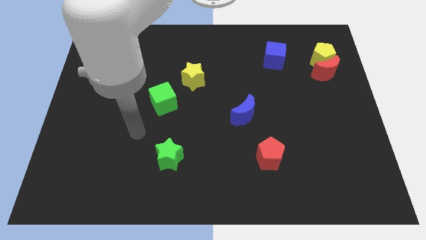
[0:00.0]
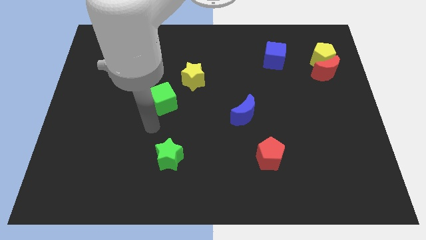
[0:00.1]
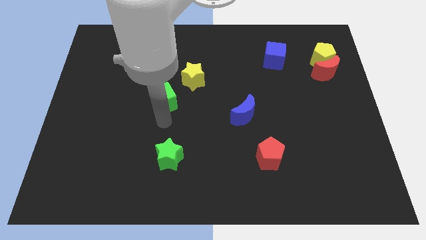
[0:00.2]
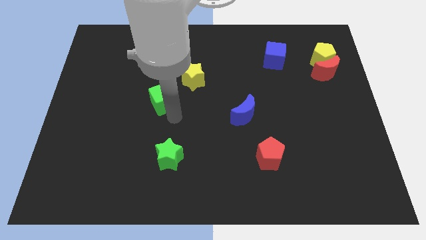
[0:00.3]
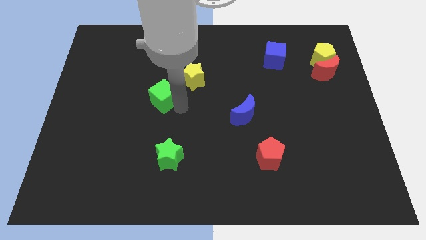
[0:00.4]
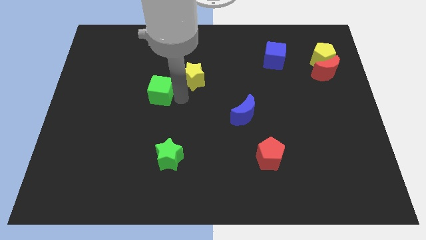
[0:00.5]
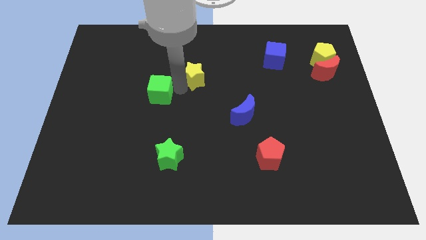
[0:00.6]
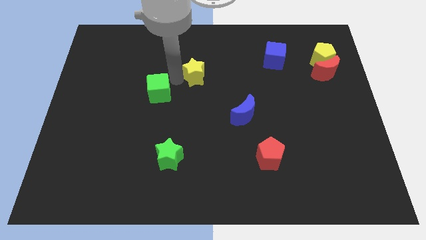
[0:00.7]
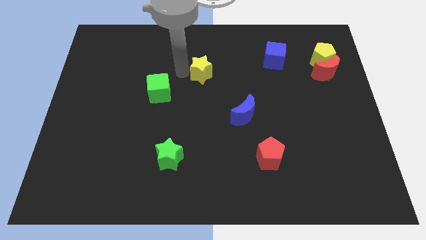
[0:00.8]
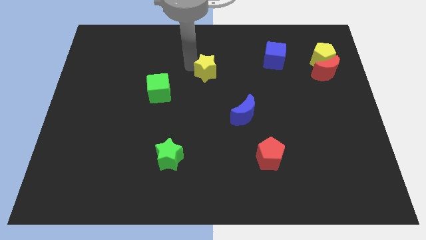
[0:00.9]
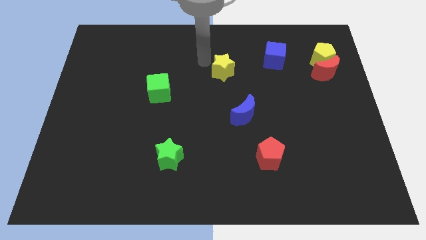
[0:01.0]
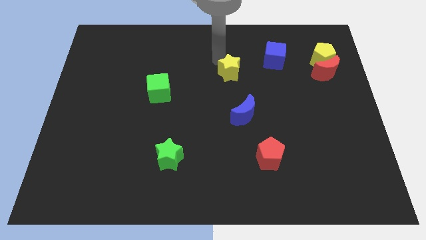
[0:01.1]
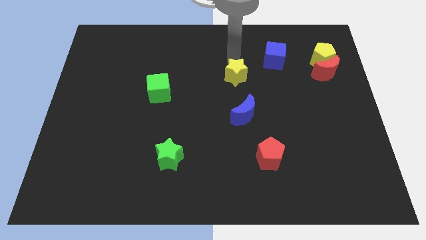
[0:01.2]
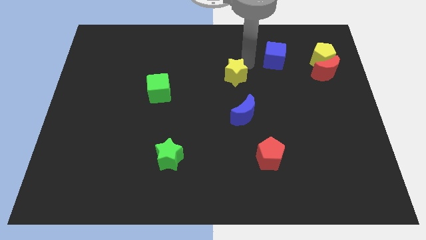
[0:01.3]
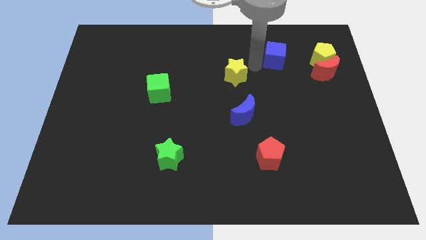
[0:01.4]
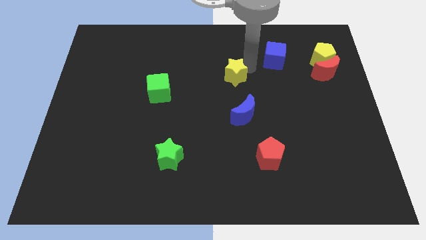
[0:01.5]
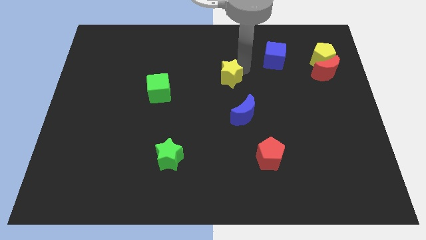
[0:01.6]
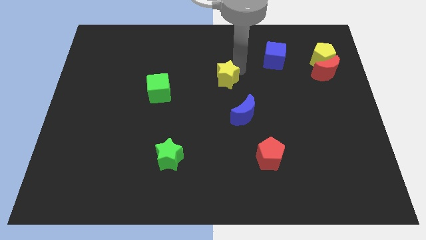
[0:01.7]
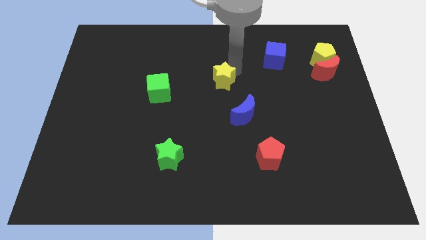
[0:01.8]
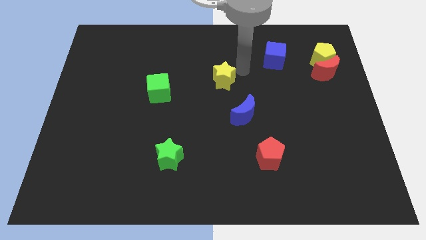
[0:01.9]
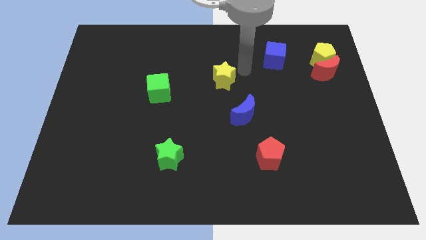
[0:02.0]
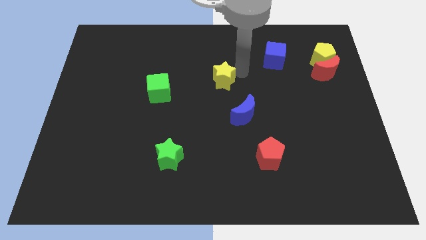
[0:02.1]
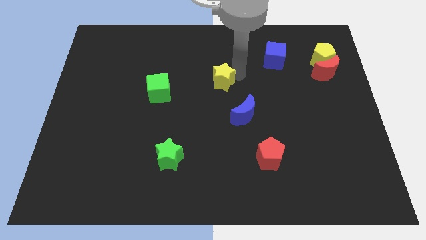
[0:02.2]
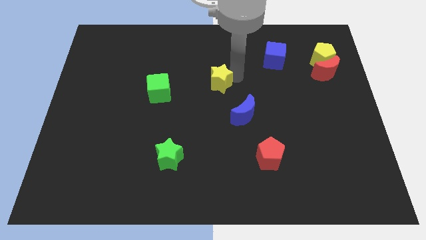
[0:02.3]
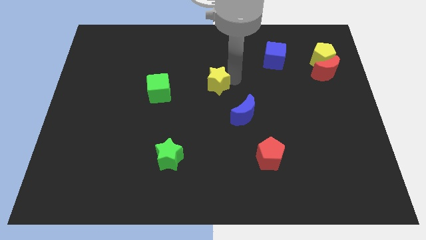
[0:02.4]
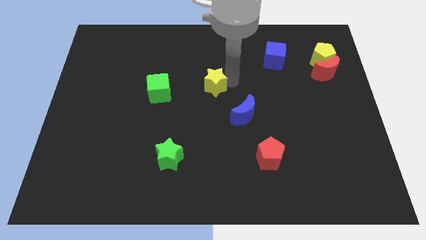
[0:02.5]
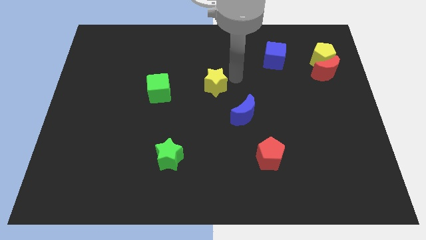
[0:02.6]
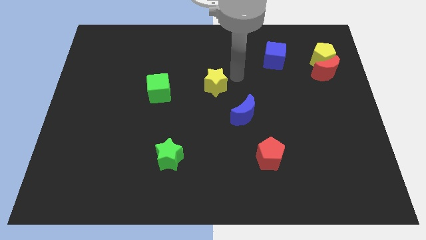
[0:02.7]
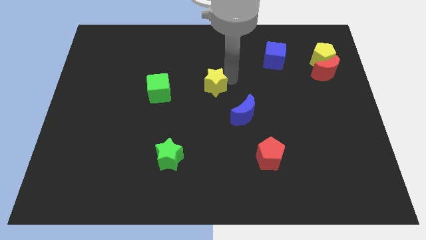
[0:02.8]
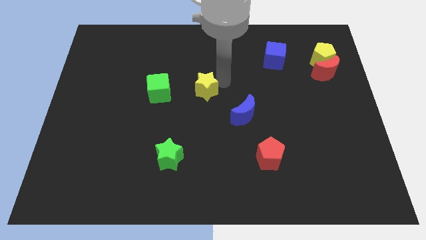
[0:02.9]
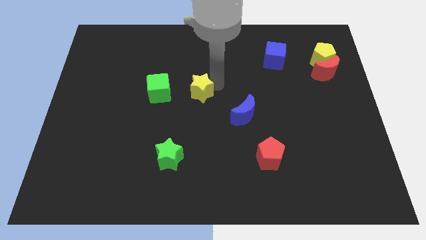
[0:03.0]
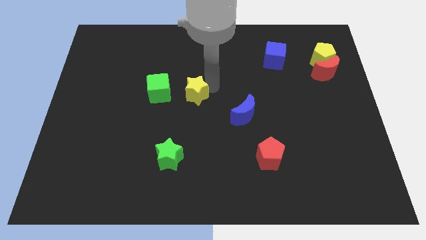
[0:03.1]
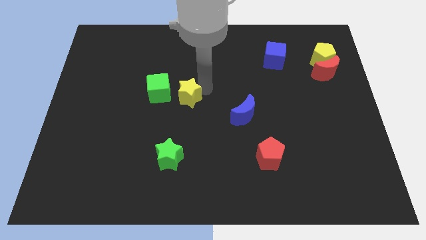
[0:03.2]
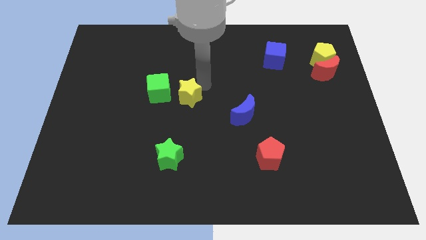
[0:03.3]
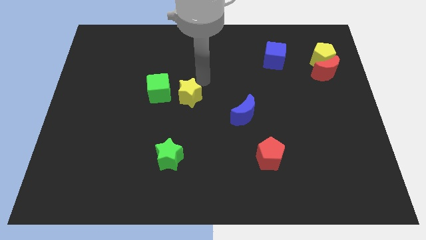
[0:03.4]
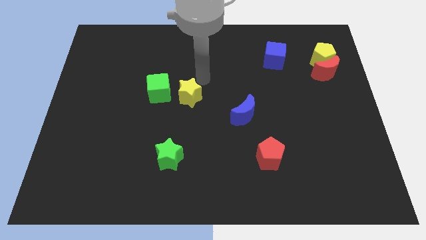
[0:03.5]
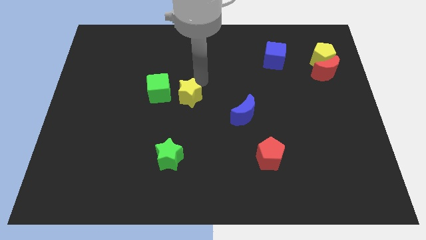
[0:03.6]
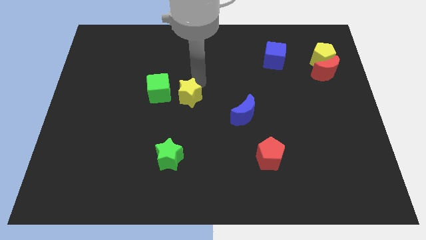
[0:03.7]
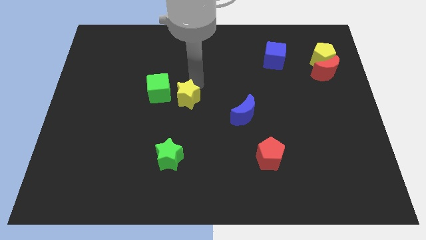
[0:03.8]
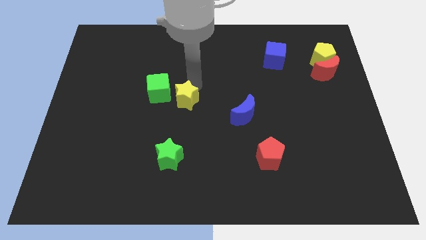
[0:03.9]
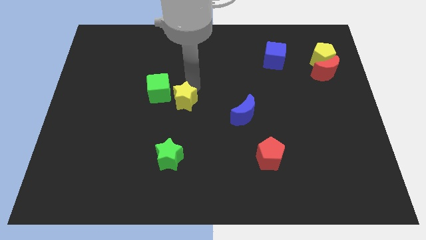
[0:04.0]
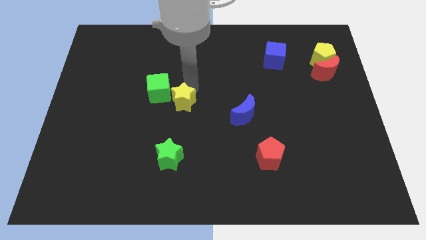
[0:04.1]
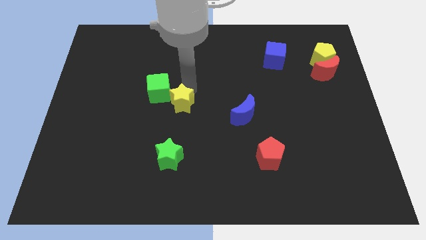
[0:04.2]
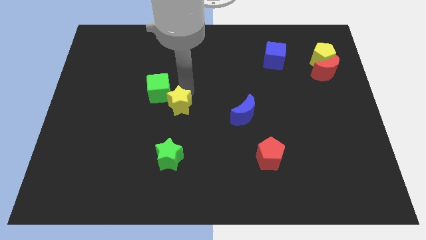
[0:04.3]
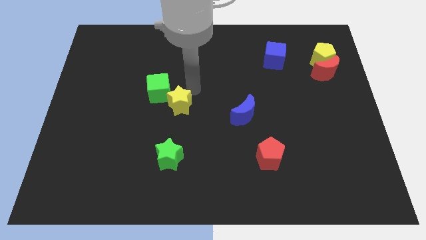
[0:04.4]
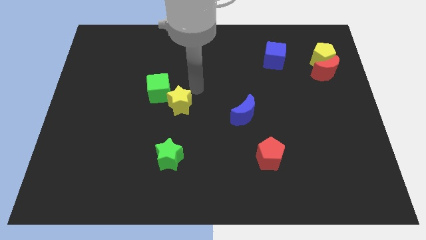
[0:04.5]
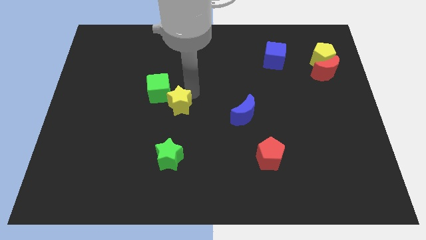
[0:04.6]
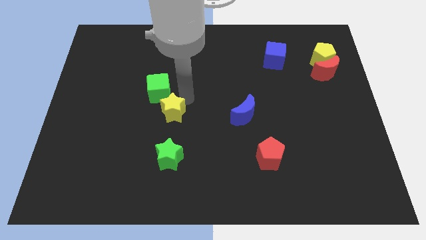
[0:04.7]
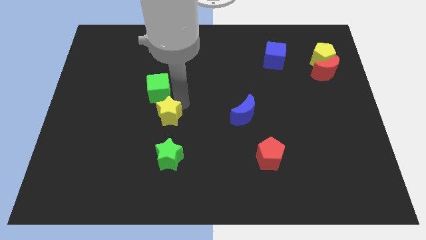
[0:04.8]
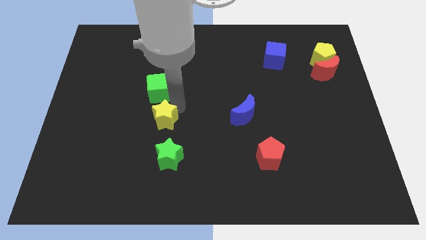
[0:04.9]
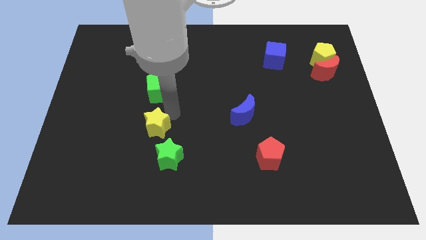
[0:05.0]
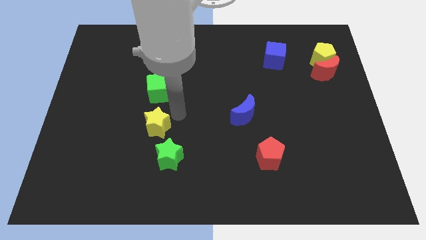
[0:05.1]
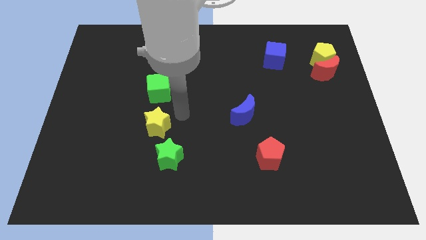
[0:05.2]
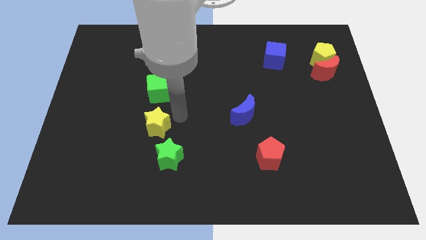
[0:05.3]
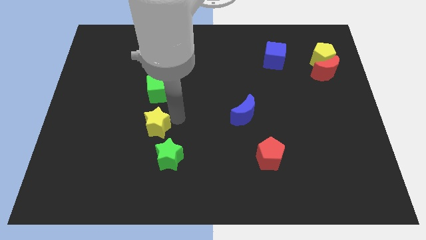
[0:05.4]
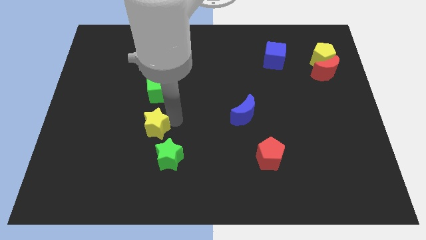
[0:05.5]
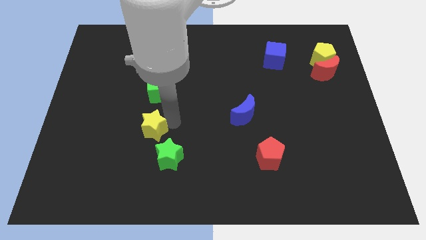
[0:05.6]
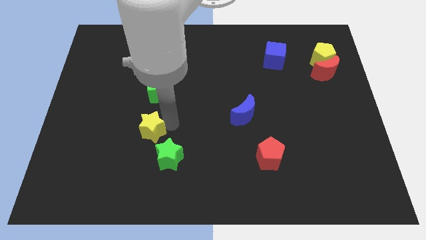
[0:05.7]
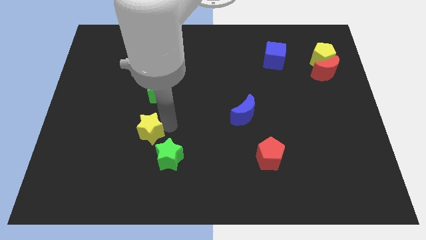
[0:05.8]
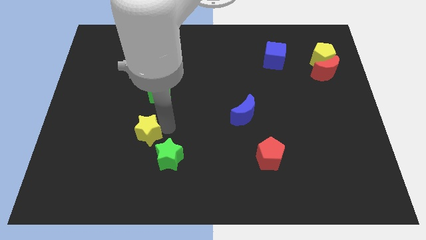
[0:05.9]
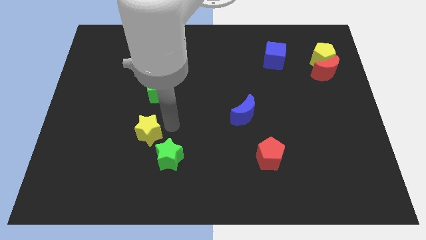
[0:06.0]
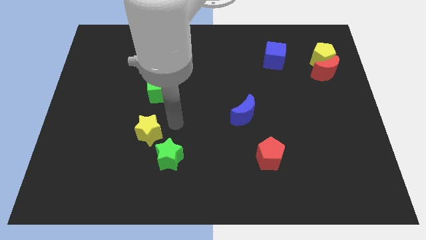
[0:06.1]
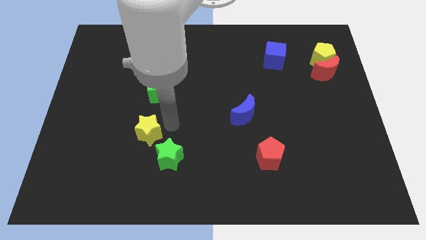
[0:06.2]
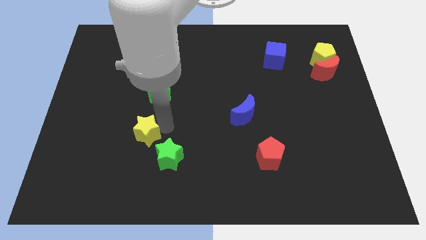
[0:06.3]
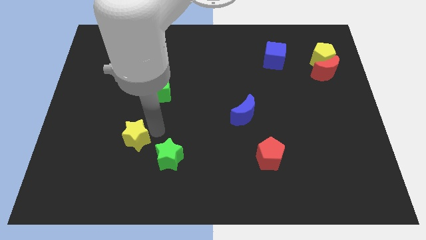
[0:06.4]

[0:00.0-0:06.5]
push the yellow star down and then left

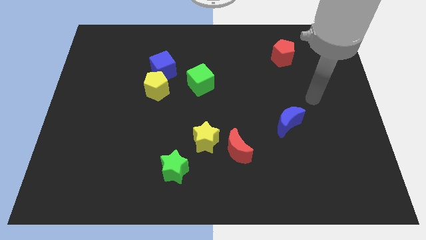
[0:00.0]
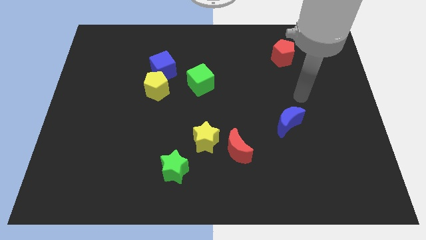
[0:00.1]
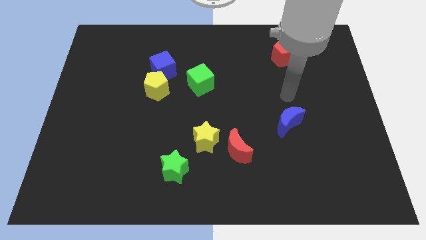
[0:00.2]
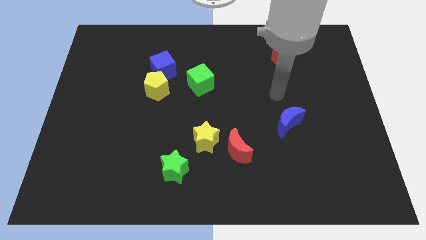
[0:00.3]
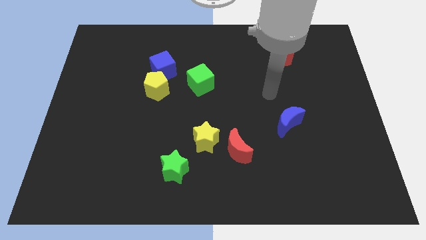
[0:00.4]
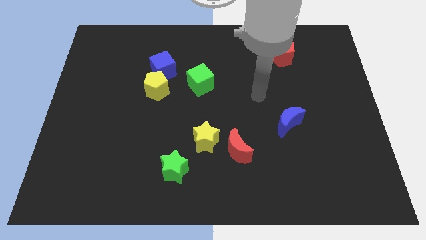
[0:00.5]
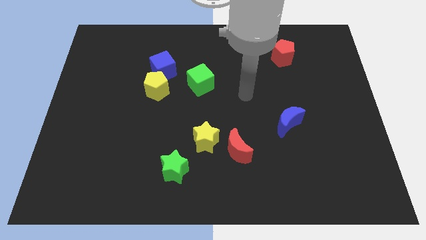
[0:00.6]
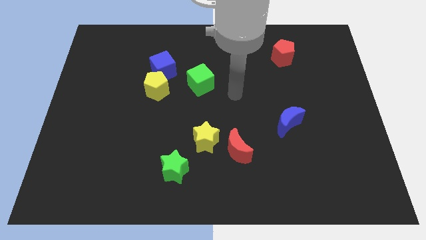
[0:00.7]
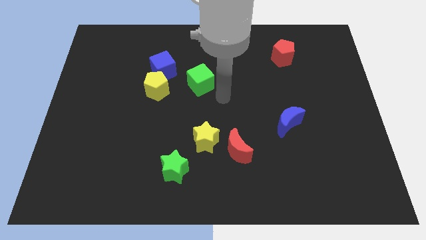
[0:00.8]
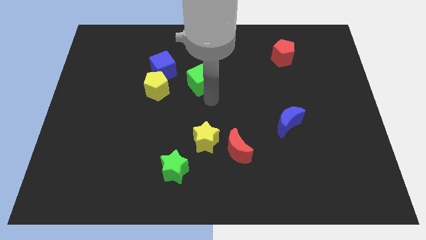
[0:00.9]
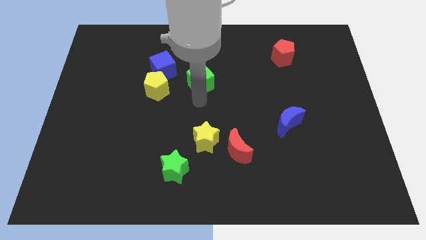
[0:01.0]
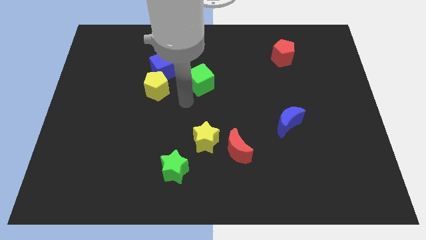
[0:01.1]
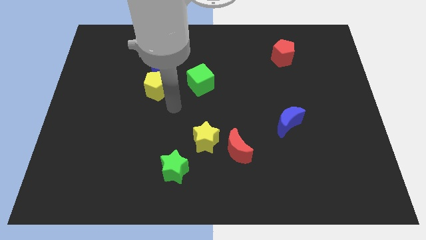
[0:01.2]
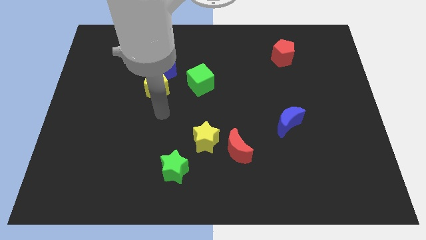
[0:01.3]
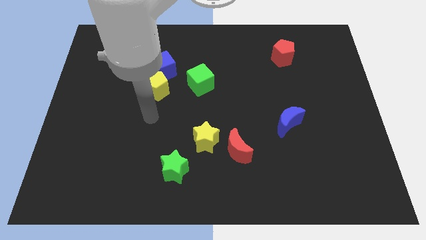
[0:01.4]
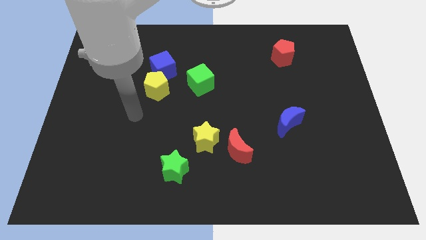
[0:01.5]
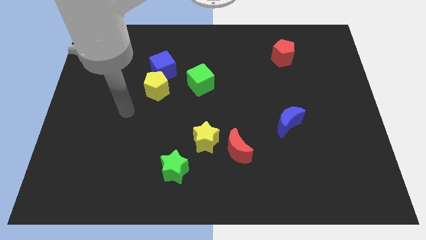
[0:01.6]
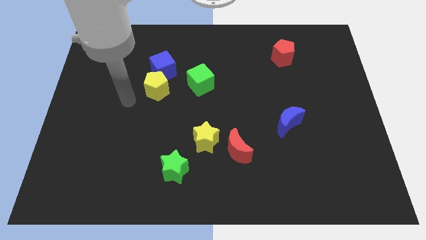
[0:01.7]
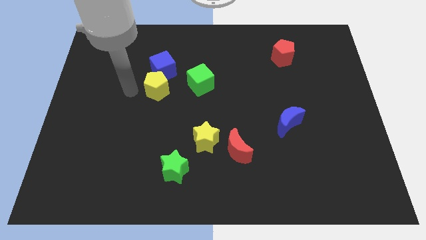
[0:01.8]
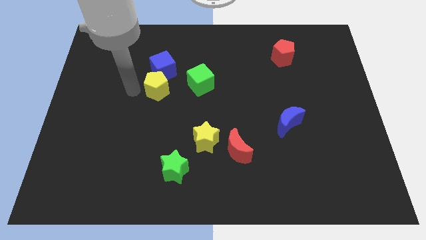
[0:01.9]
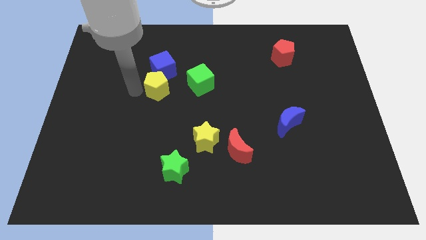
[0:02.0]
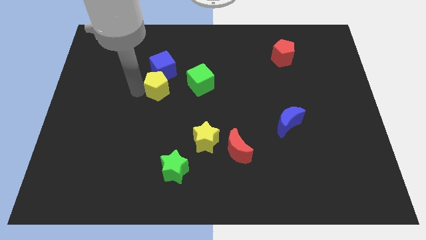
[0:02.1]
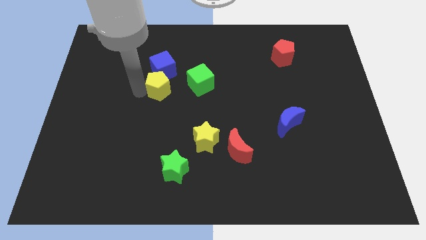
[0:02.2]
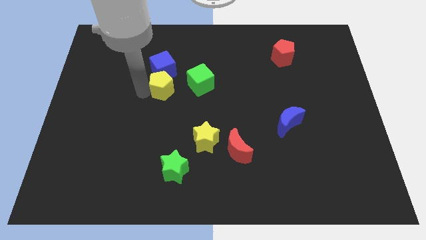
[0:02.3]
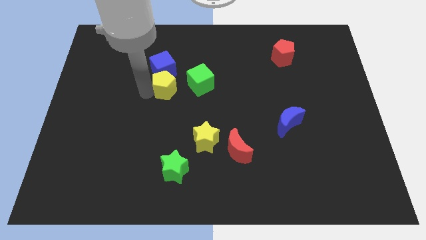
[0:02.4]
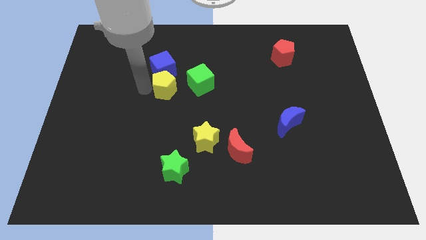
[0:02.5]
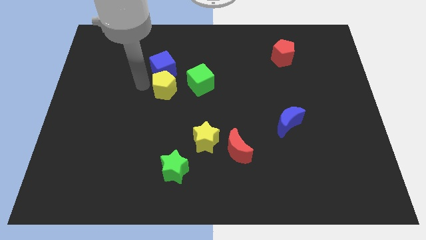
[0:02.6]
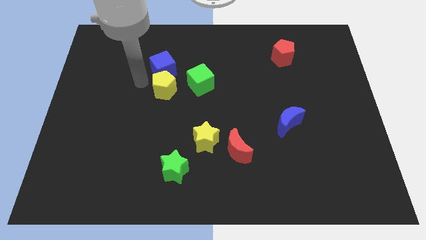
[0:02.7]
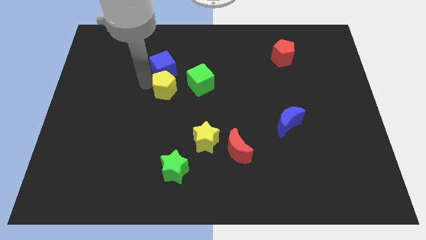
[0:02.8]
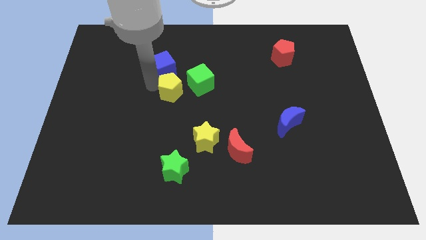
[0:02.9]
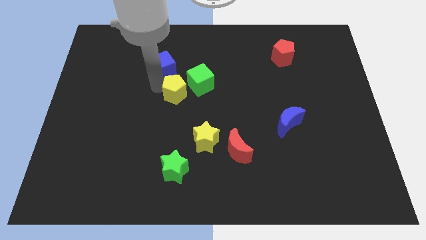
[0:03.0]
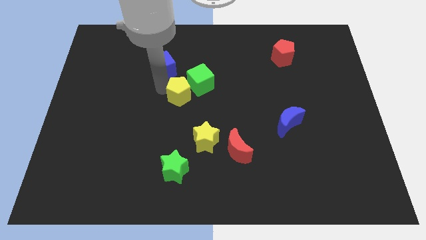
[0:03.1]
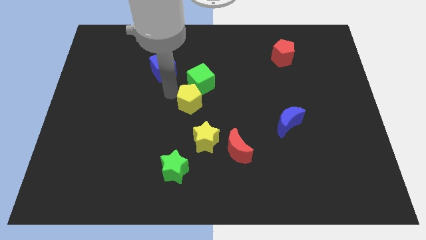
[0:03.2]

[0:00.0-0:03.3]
move the yellow pentagon a bit to the right
